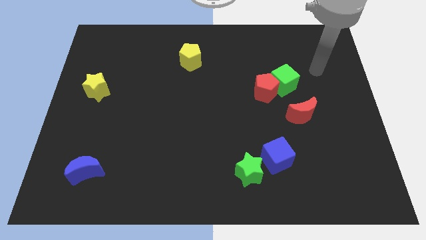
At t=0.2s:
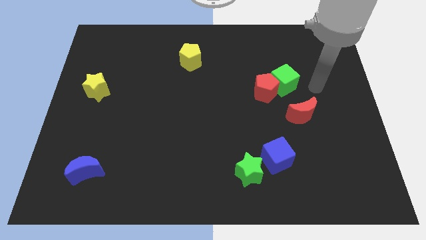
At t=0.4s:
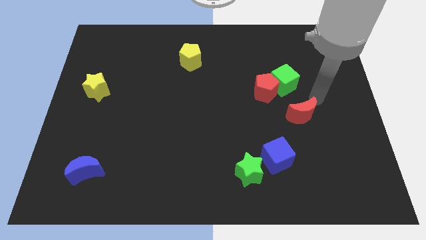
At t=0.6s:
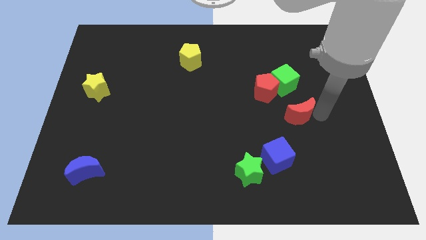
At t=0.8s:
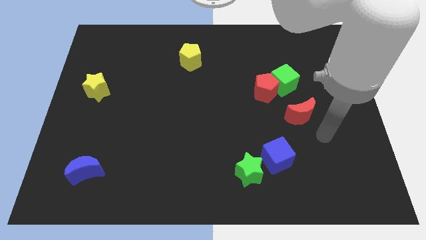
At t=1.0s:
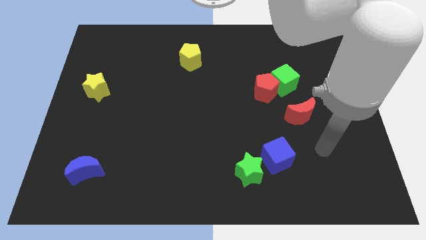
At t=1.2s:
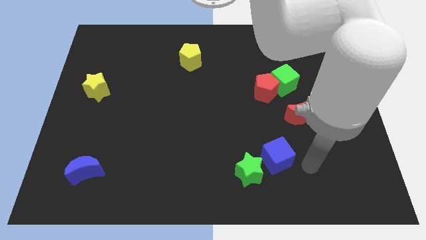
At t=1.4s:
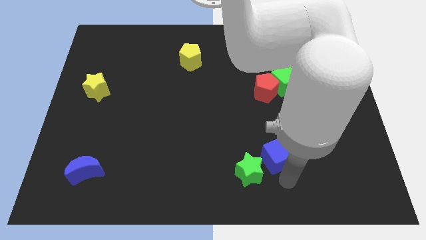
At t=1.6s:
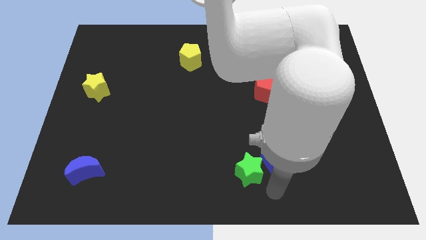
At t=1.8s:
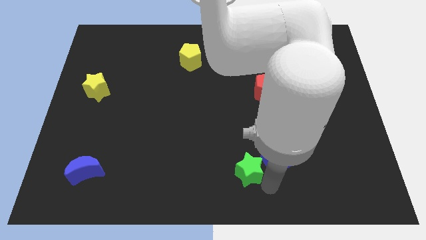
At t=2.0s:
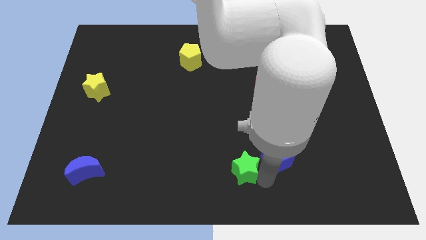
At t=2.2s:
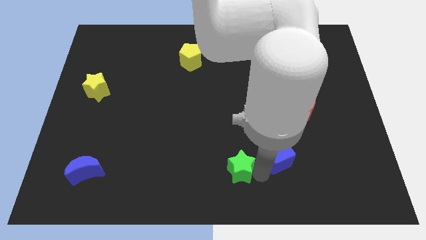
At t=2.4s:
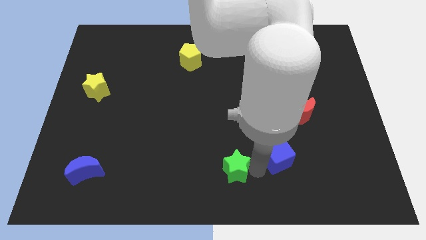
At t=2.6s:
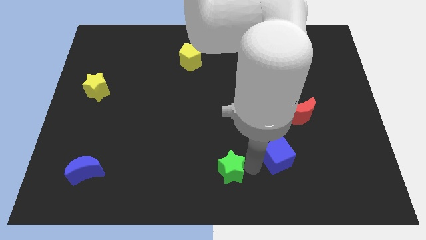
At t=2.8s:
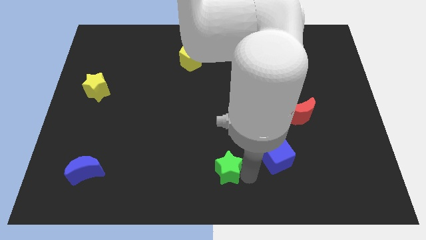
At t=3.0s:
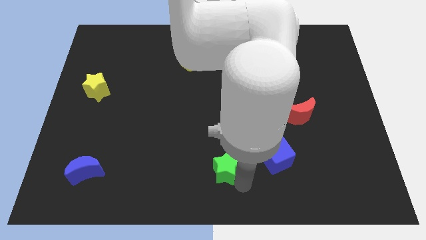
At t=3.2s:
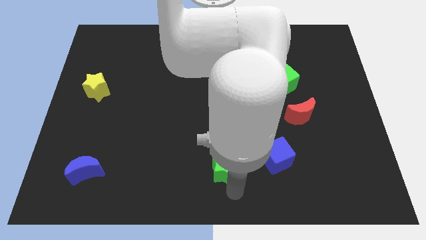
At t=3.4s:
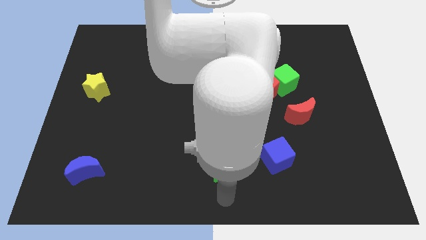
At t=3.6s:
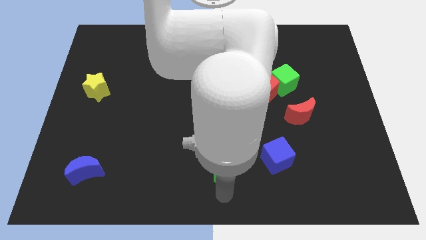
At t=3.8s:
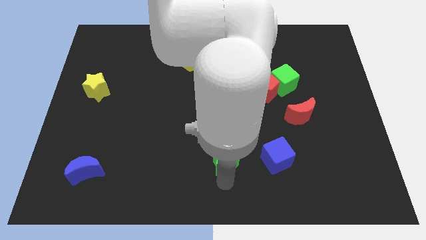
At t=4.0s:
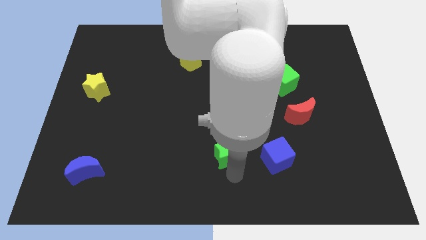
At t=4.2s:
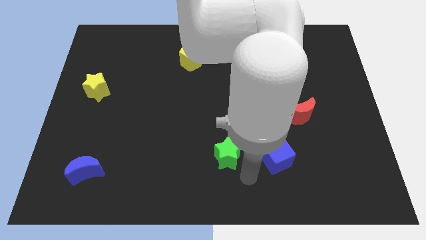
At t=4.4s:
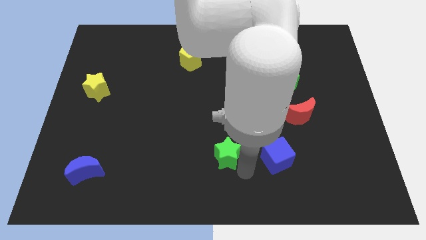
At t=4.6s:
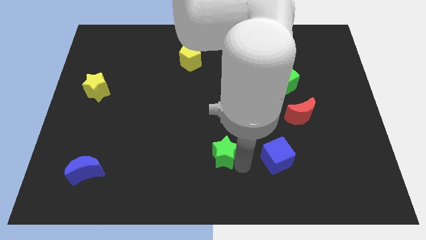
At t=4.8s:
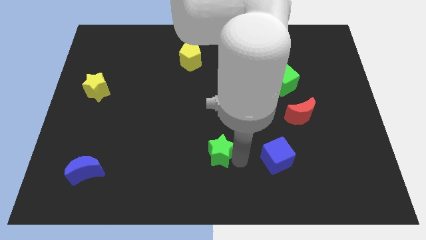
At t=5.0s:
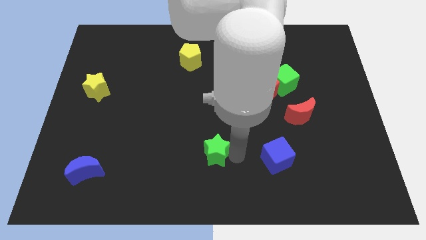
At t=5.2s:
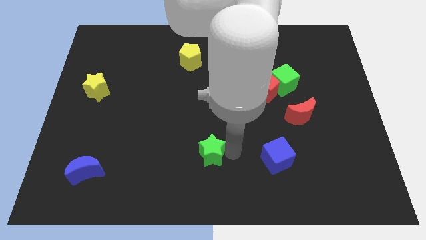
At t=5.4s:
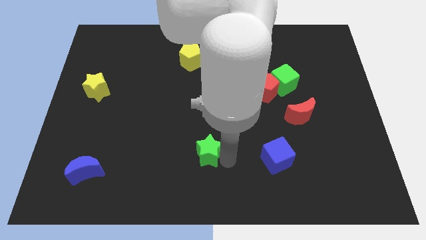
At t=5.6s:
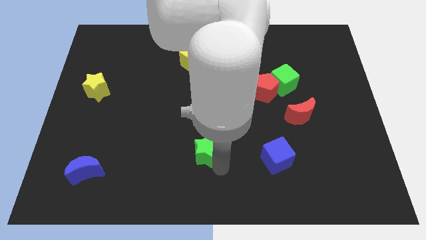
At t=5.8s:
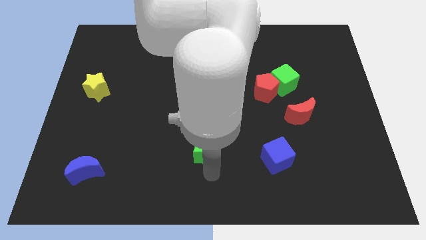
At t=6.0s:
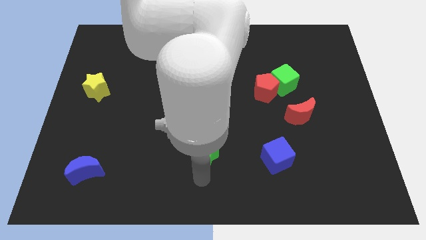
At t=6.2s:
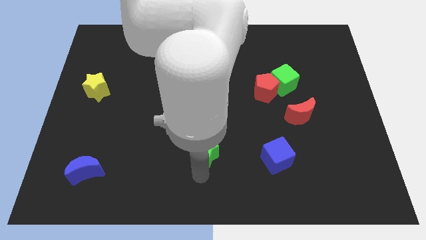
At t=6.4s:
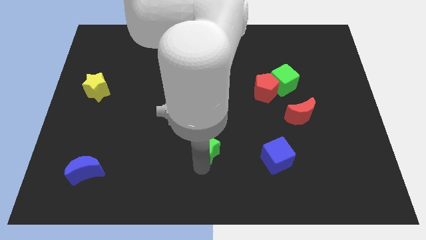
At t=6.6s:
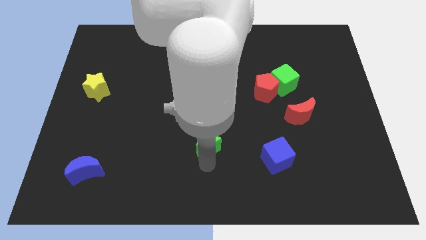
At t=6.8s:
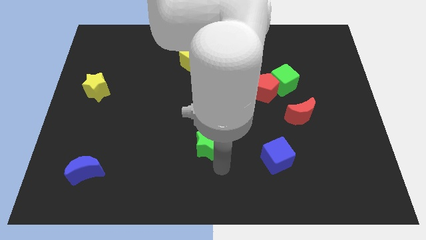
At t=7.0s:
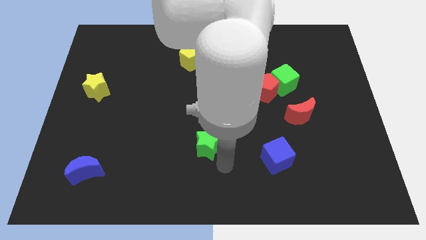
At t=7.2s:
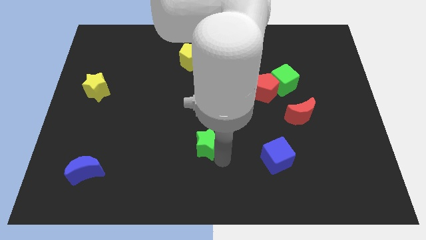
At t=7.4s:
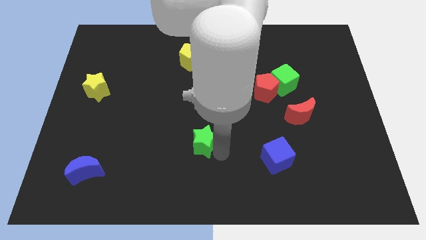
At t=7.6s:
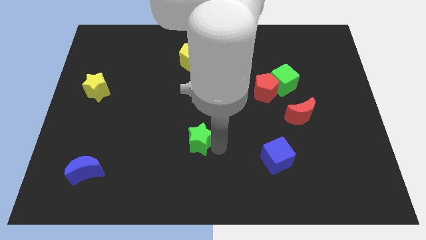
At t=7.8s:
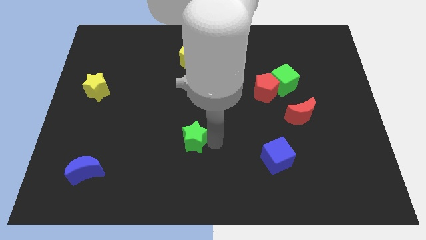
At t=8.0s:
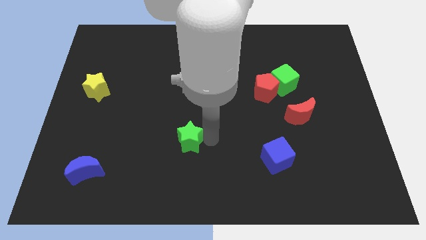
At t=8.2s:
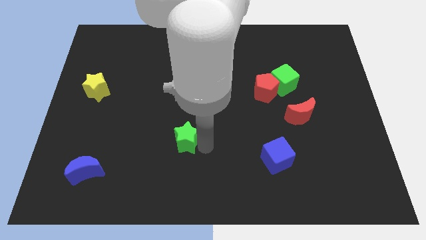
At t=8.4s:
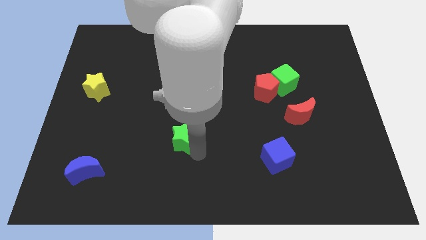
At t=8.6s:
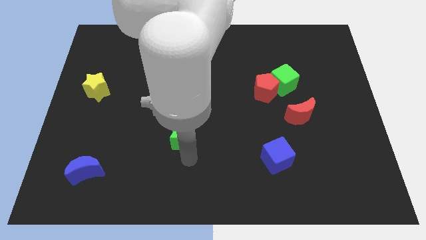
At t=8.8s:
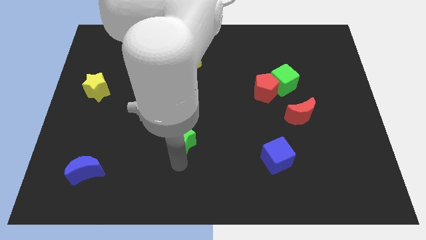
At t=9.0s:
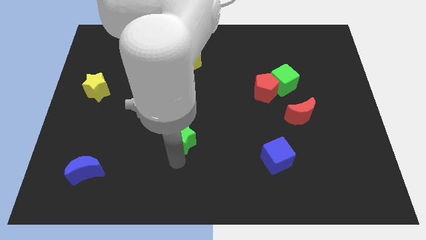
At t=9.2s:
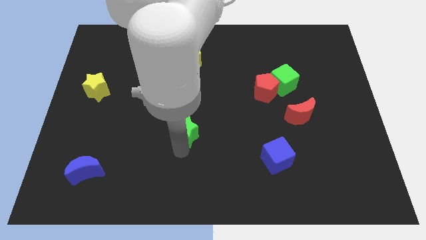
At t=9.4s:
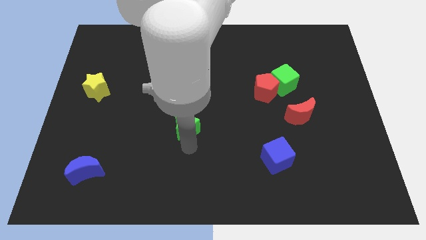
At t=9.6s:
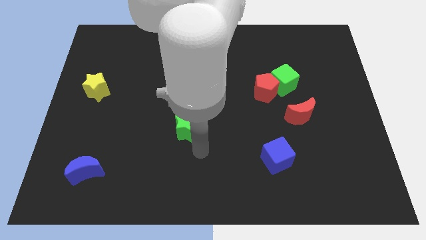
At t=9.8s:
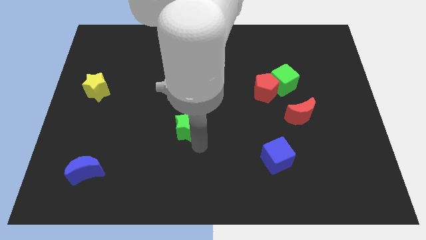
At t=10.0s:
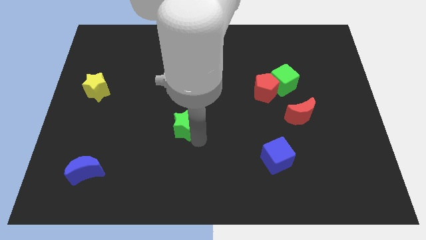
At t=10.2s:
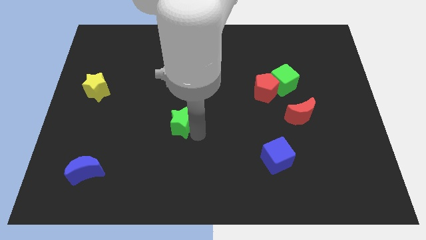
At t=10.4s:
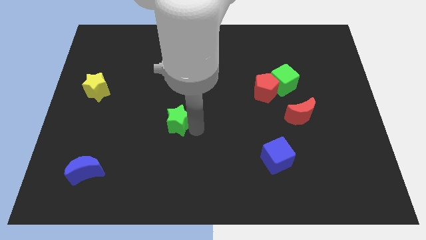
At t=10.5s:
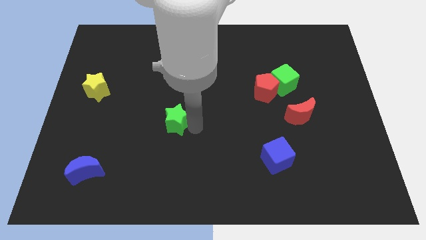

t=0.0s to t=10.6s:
push the green star up and then left

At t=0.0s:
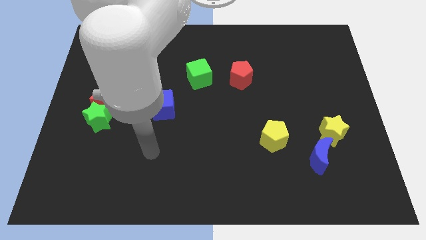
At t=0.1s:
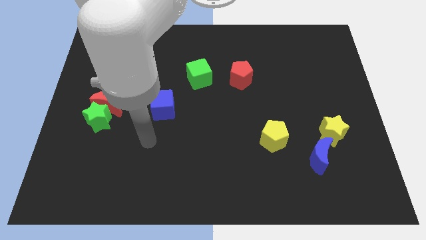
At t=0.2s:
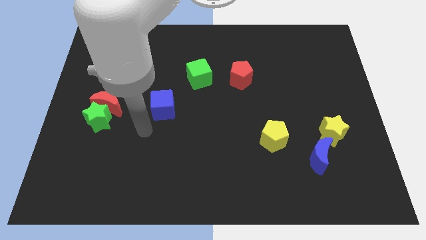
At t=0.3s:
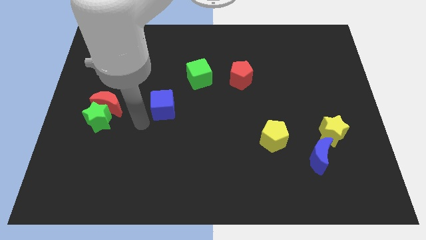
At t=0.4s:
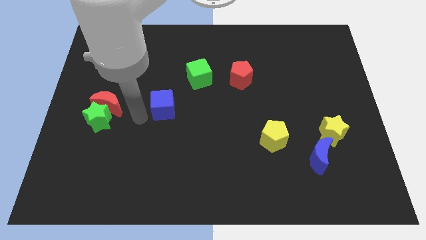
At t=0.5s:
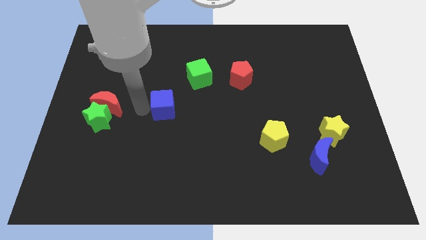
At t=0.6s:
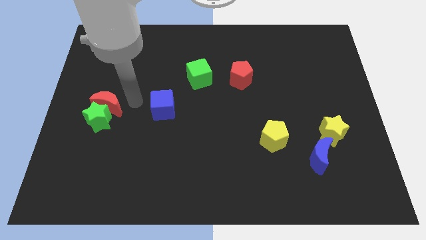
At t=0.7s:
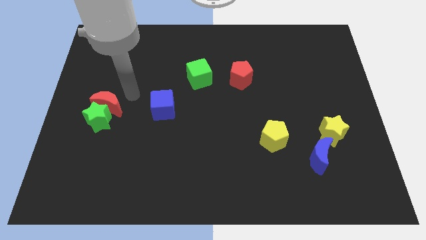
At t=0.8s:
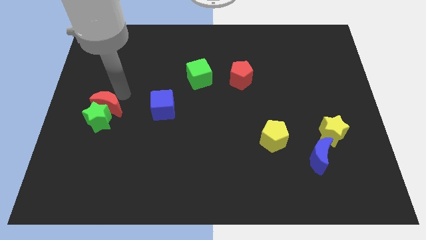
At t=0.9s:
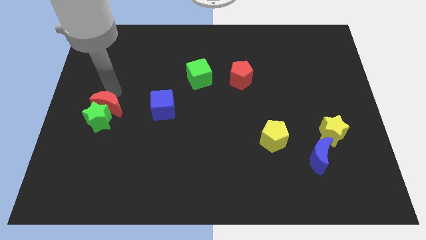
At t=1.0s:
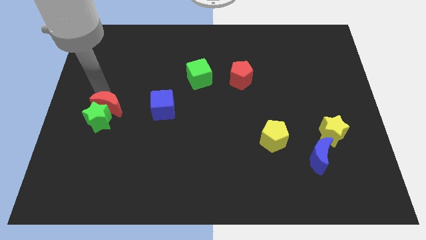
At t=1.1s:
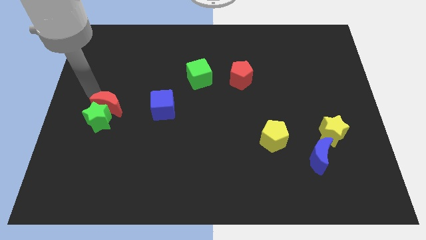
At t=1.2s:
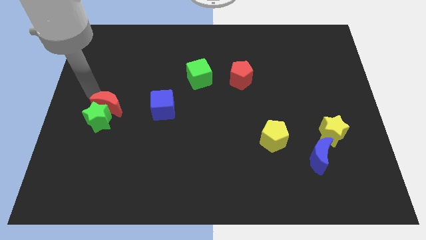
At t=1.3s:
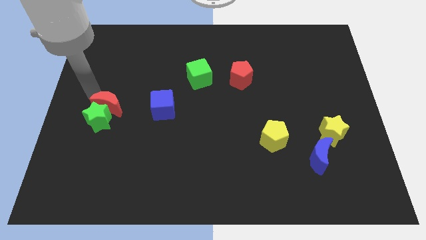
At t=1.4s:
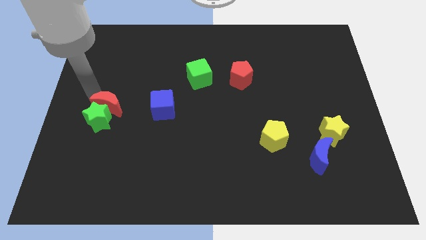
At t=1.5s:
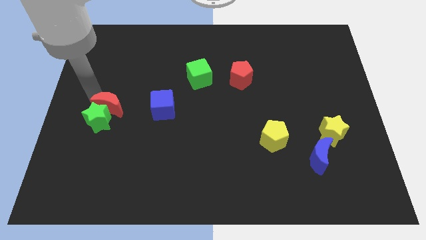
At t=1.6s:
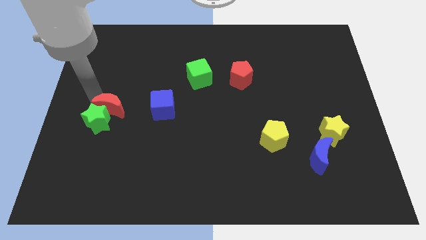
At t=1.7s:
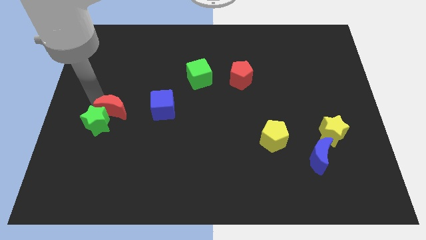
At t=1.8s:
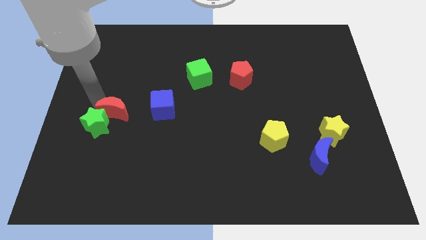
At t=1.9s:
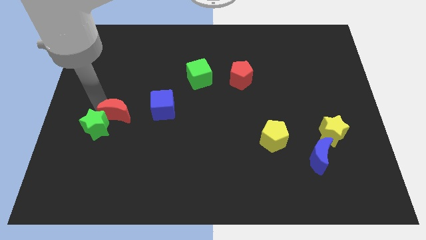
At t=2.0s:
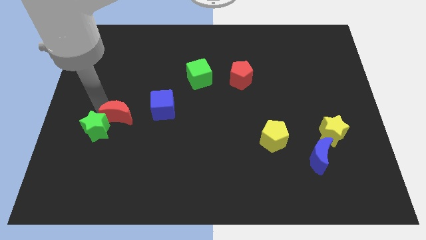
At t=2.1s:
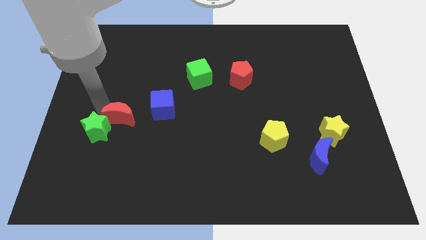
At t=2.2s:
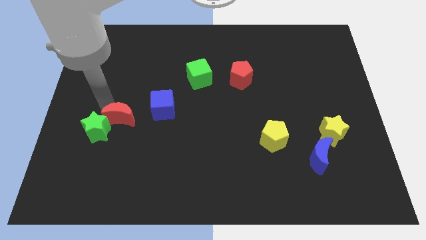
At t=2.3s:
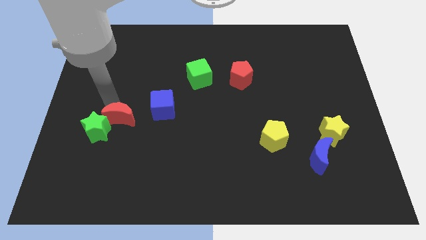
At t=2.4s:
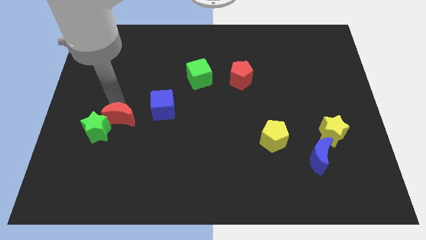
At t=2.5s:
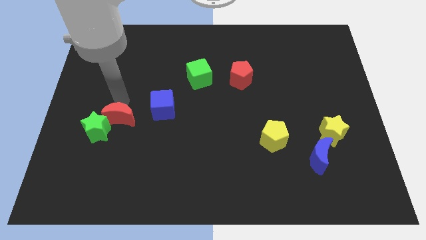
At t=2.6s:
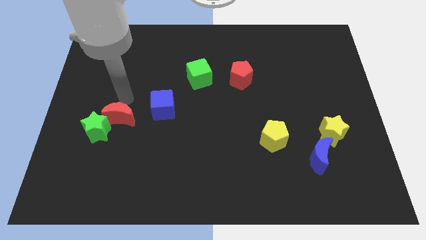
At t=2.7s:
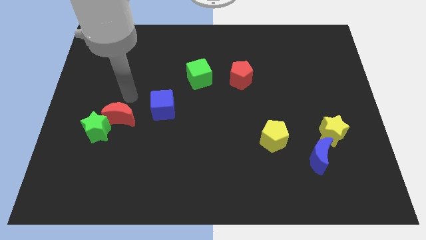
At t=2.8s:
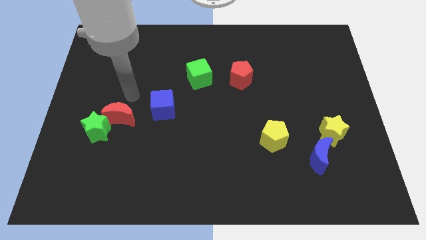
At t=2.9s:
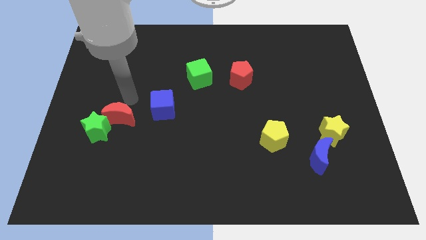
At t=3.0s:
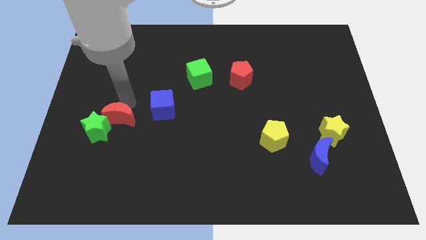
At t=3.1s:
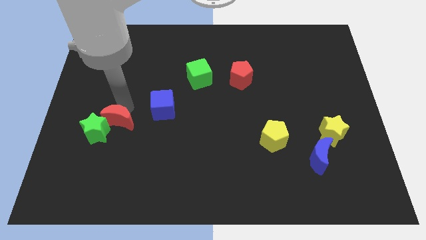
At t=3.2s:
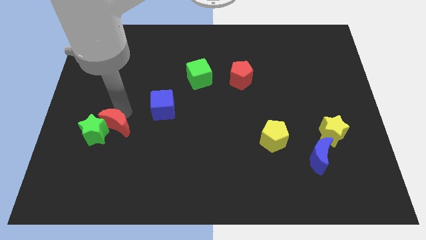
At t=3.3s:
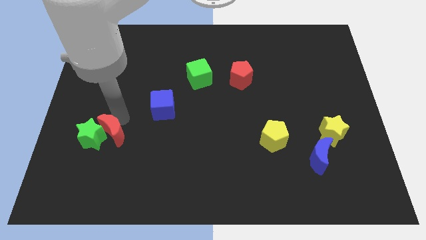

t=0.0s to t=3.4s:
push the red moon downwards slightly
